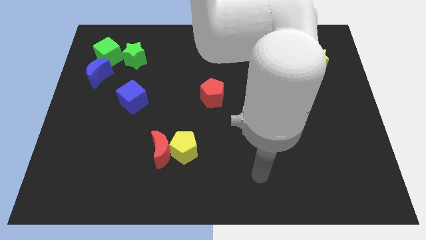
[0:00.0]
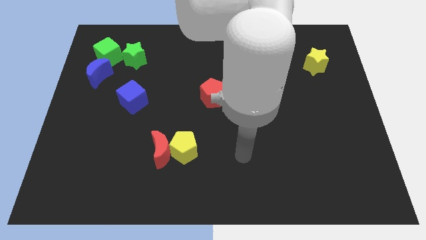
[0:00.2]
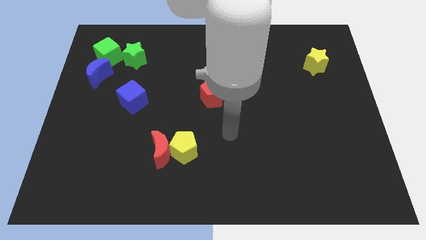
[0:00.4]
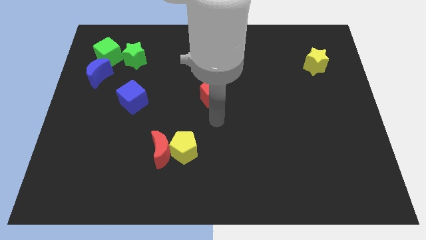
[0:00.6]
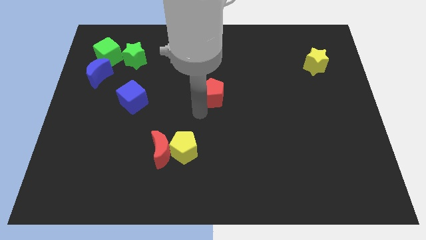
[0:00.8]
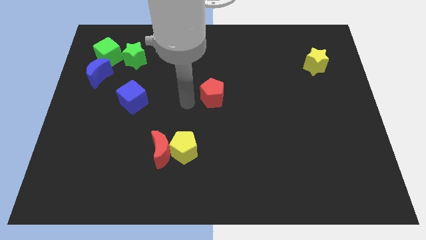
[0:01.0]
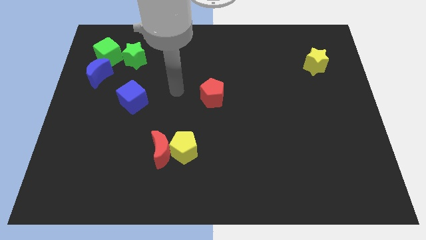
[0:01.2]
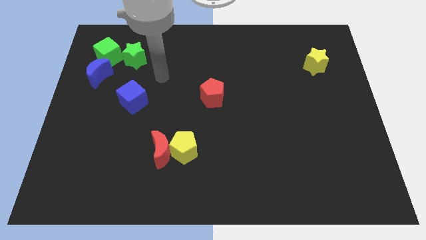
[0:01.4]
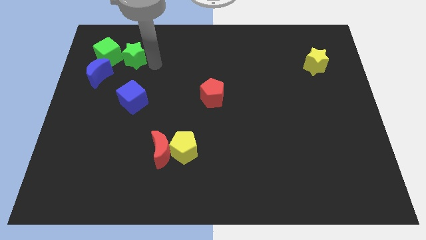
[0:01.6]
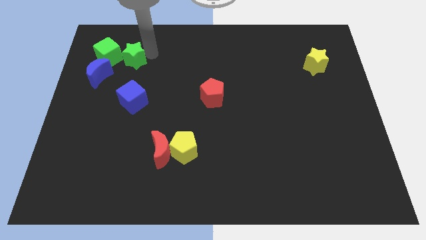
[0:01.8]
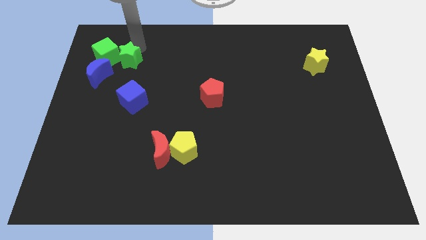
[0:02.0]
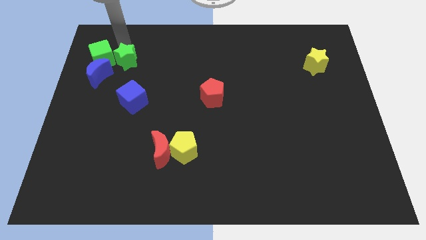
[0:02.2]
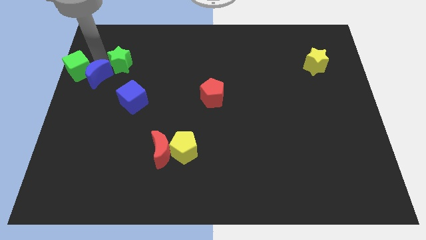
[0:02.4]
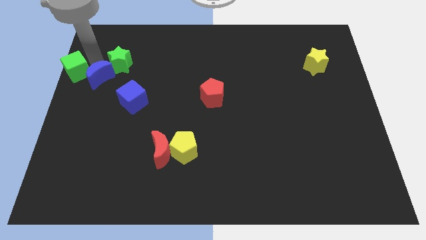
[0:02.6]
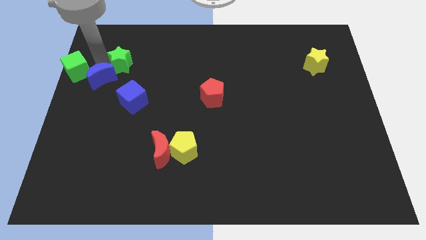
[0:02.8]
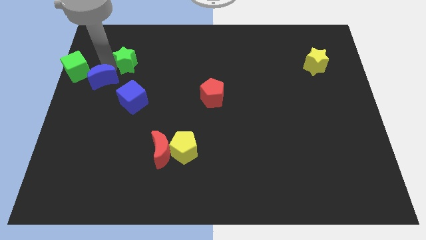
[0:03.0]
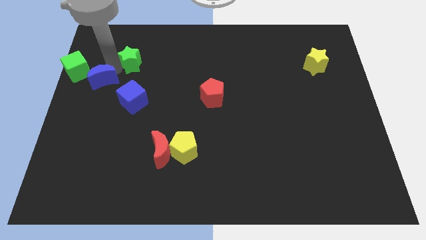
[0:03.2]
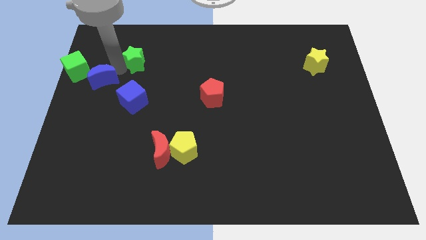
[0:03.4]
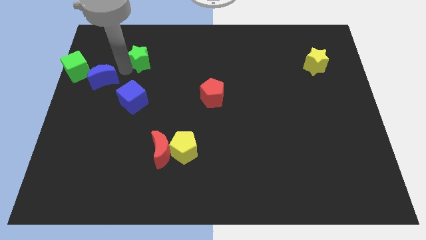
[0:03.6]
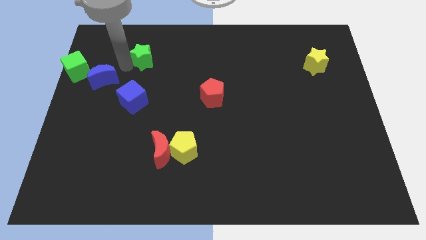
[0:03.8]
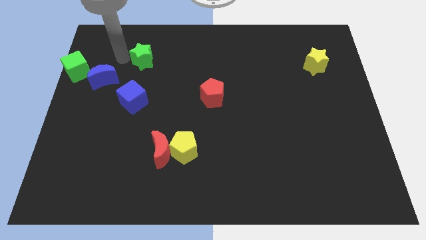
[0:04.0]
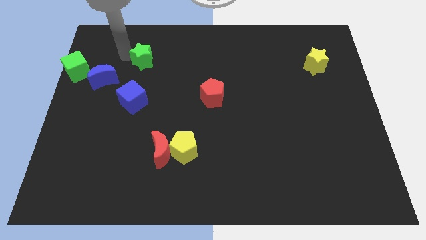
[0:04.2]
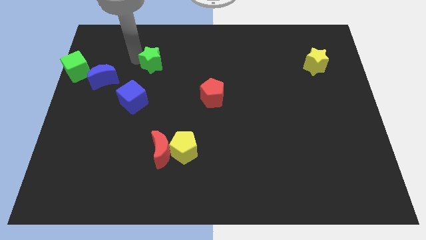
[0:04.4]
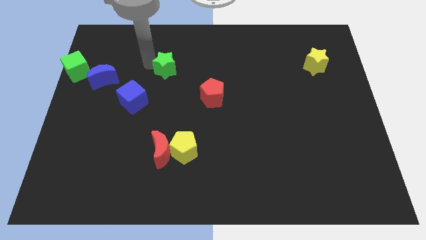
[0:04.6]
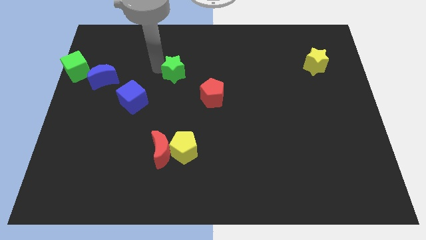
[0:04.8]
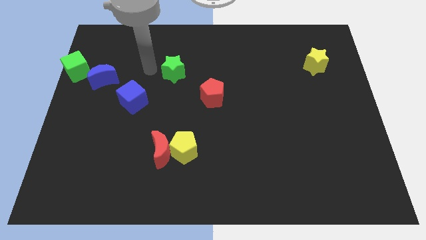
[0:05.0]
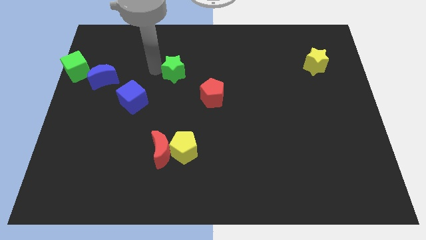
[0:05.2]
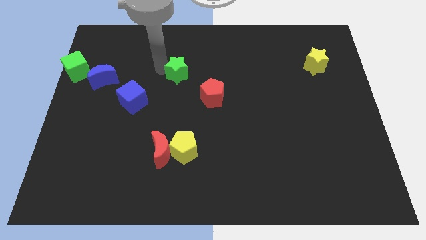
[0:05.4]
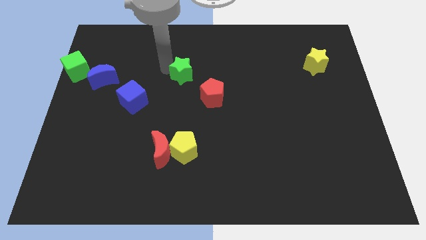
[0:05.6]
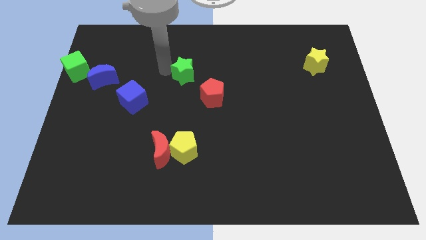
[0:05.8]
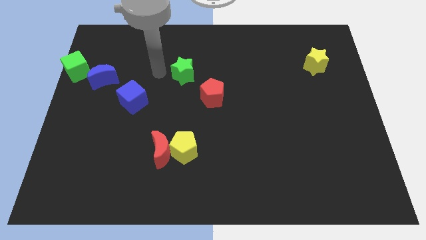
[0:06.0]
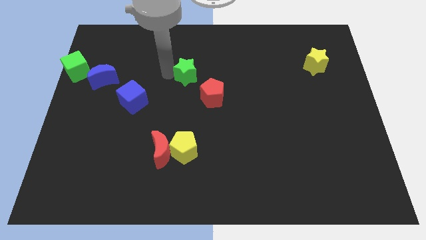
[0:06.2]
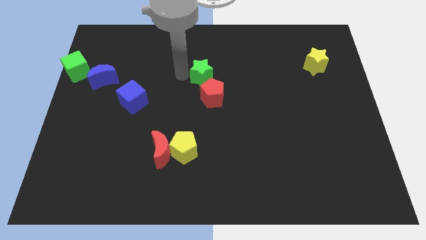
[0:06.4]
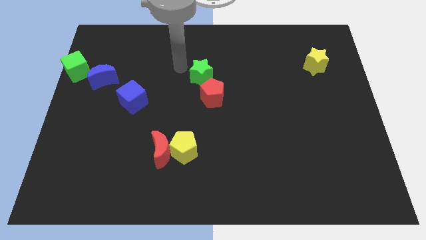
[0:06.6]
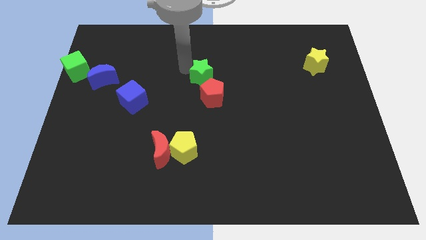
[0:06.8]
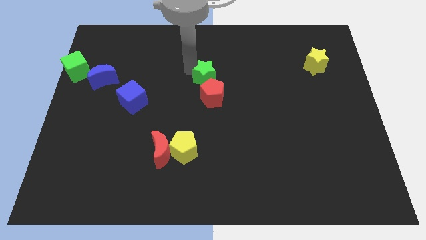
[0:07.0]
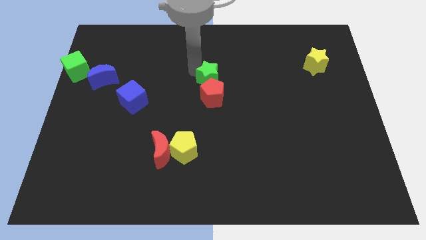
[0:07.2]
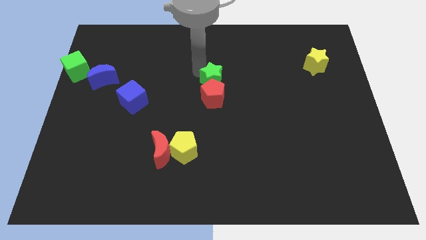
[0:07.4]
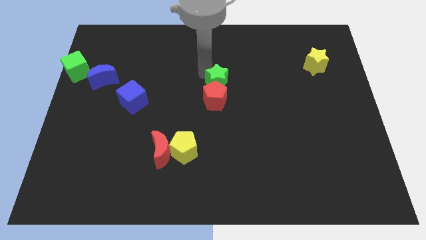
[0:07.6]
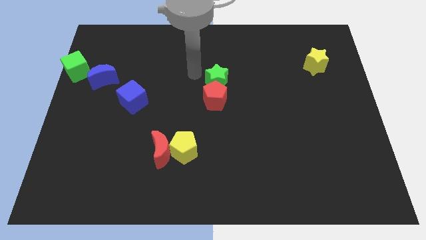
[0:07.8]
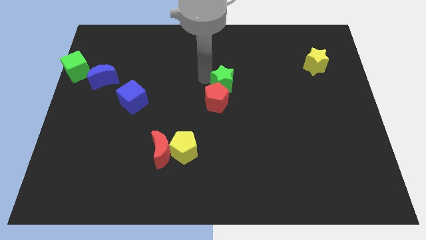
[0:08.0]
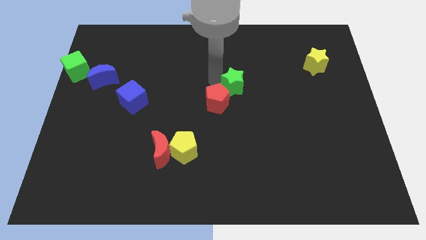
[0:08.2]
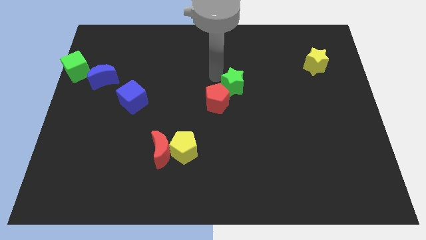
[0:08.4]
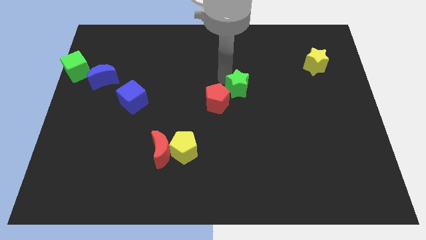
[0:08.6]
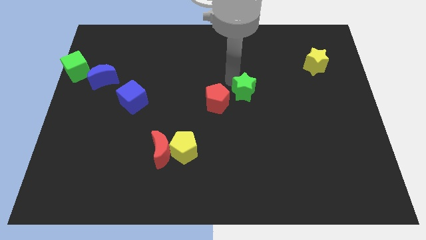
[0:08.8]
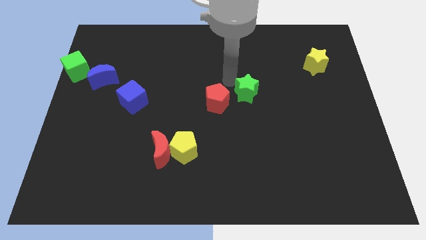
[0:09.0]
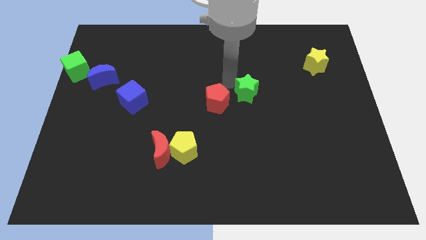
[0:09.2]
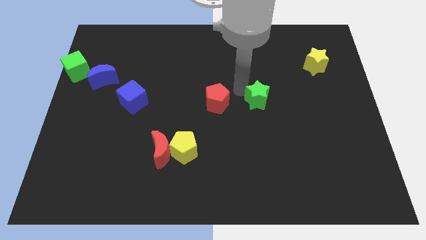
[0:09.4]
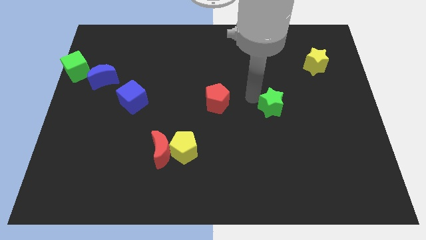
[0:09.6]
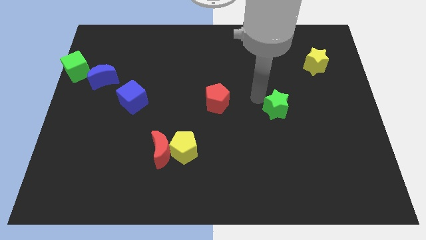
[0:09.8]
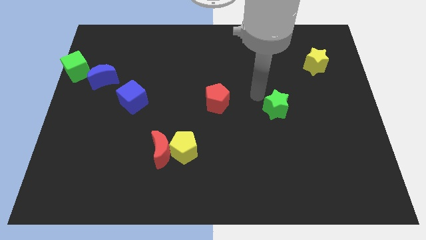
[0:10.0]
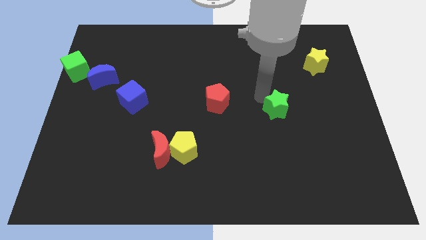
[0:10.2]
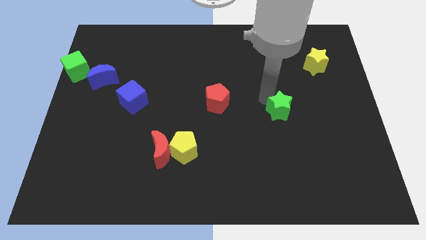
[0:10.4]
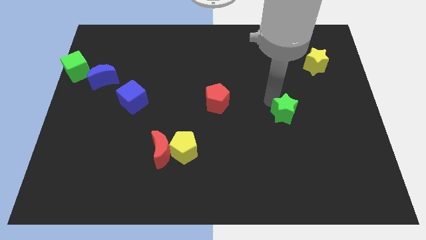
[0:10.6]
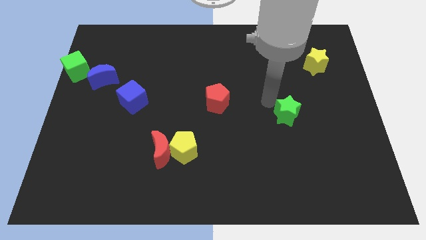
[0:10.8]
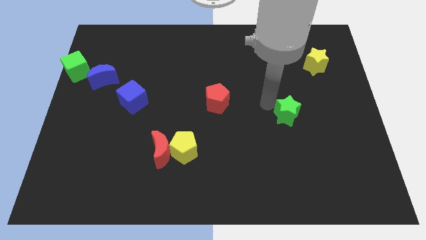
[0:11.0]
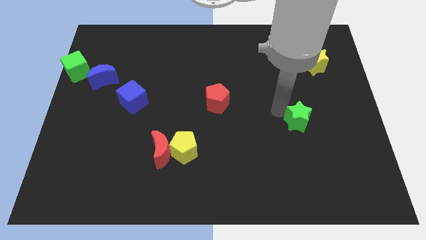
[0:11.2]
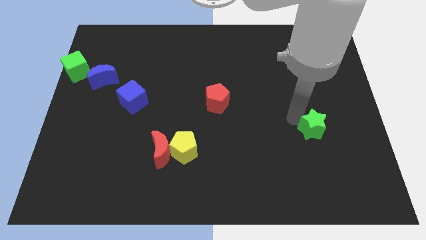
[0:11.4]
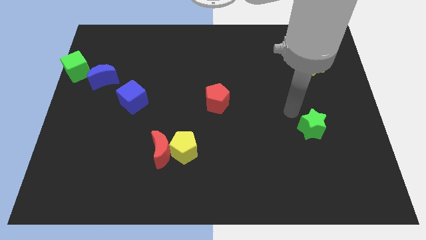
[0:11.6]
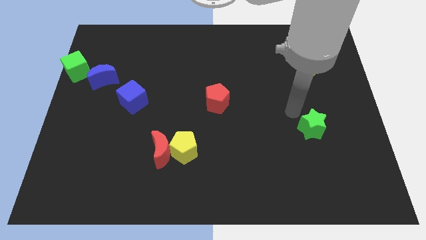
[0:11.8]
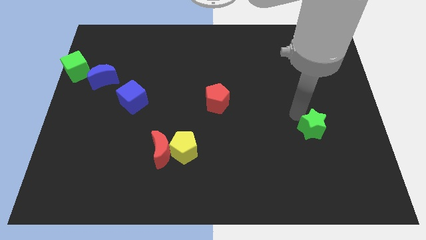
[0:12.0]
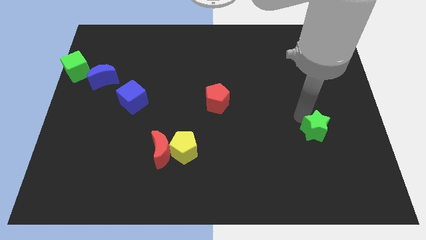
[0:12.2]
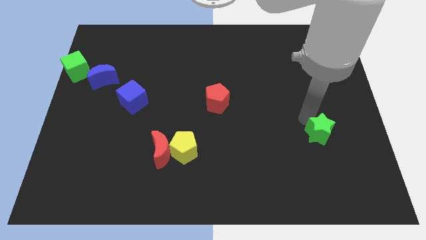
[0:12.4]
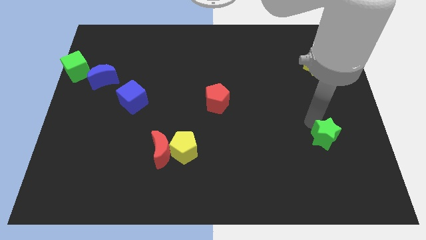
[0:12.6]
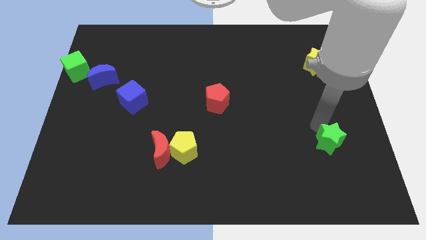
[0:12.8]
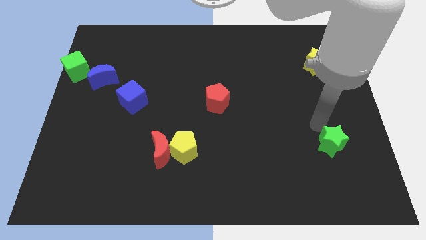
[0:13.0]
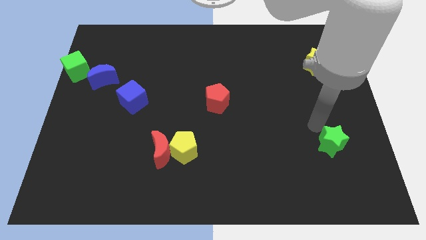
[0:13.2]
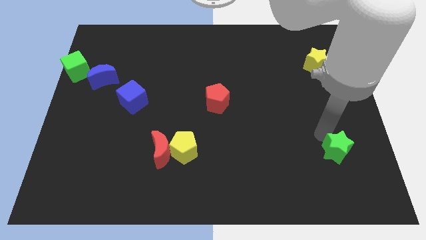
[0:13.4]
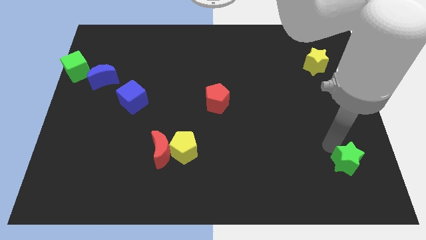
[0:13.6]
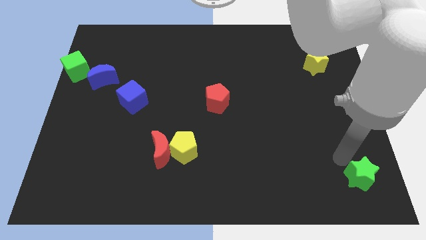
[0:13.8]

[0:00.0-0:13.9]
put the green star to the bottom right
